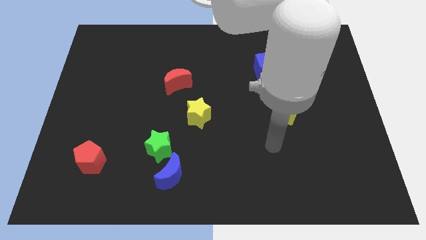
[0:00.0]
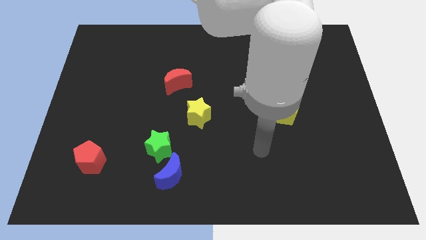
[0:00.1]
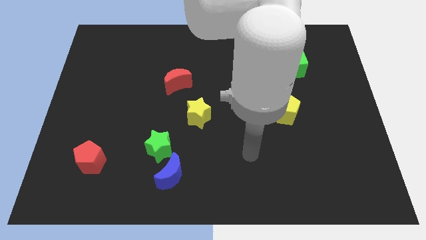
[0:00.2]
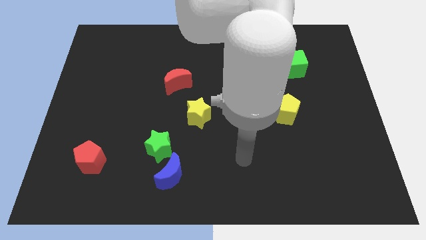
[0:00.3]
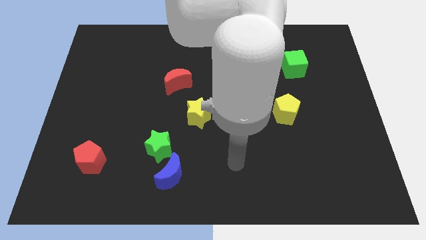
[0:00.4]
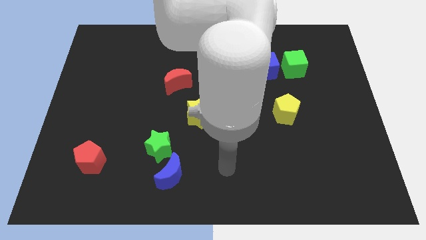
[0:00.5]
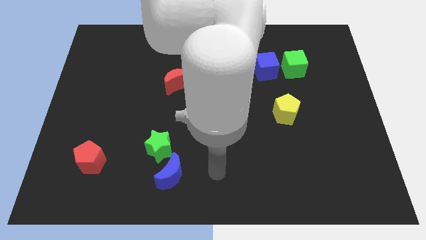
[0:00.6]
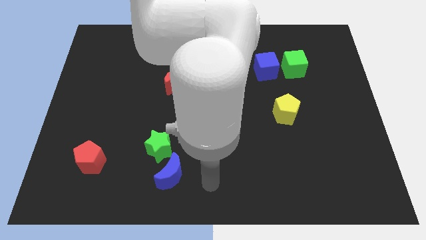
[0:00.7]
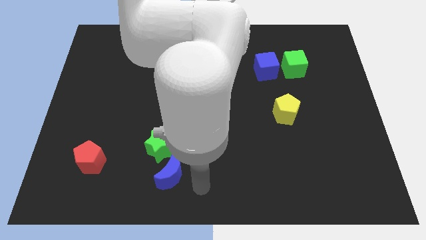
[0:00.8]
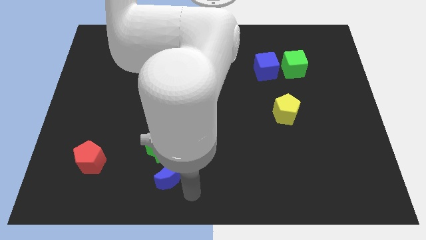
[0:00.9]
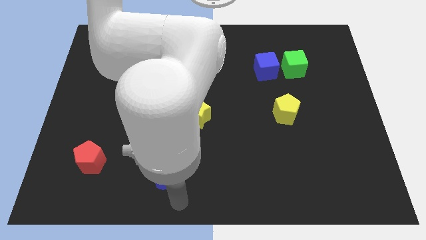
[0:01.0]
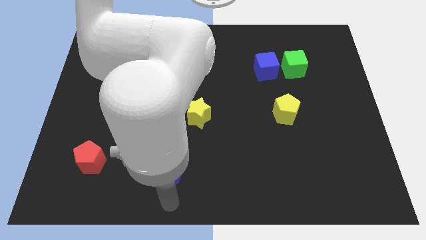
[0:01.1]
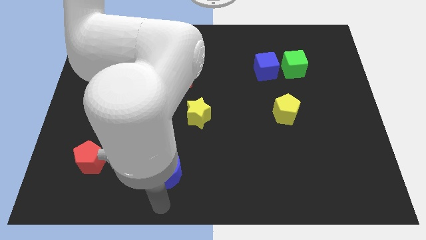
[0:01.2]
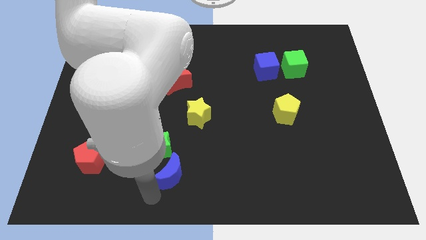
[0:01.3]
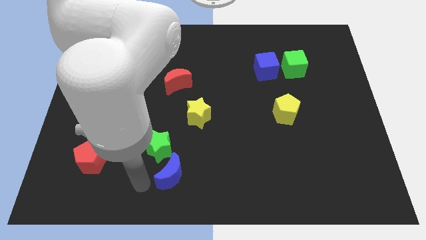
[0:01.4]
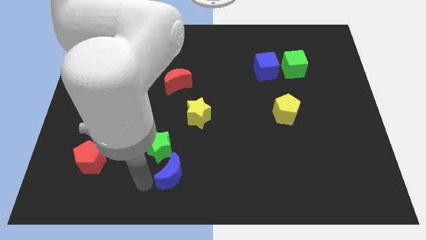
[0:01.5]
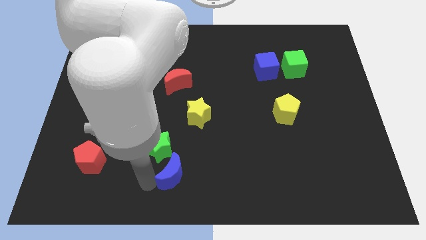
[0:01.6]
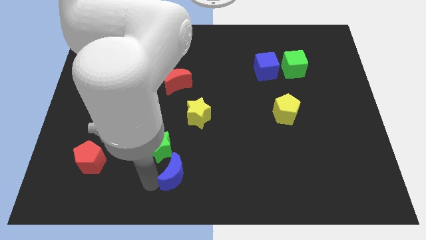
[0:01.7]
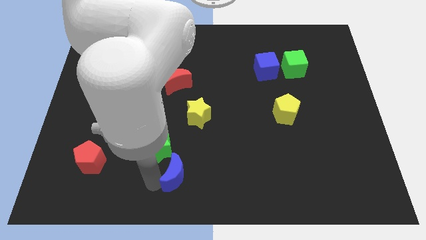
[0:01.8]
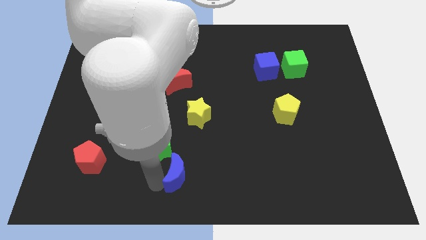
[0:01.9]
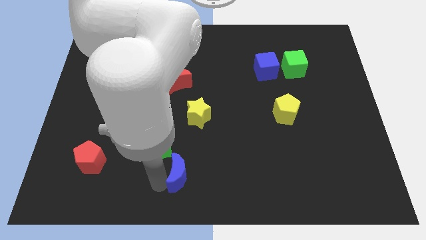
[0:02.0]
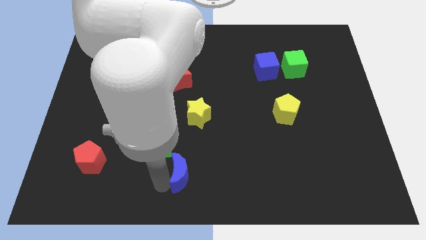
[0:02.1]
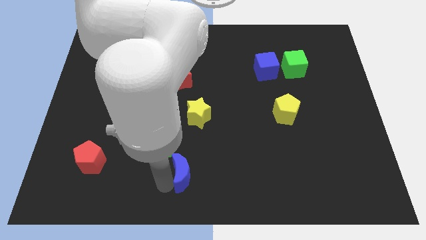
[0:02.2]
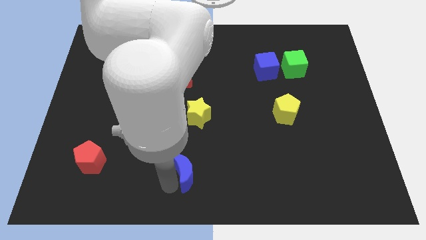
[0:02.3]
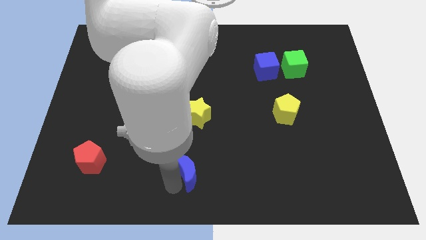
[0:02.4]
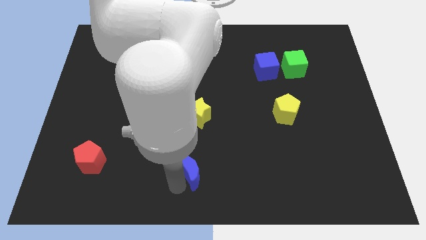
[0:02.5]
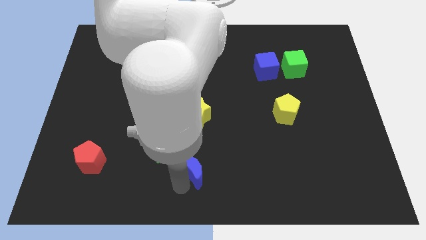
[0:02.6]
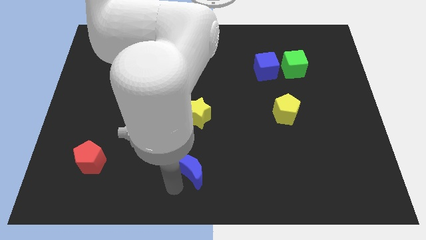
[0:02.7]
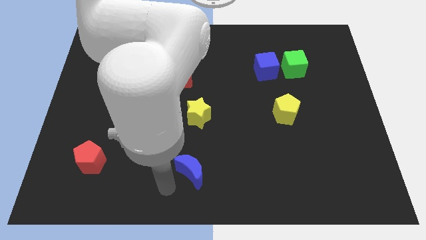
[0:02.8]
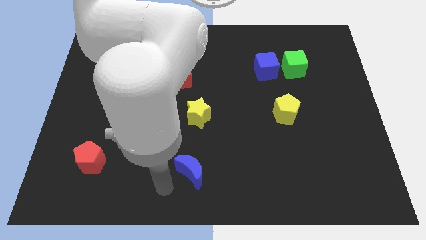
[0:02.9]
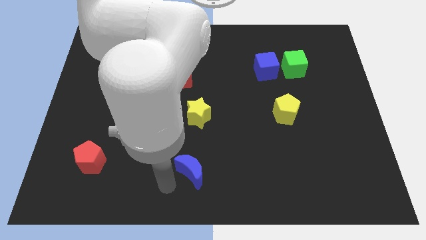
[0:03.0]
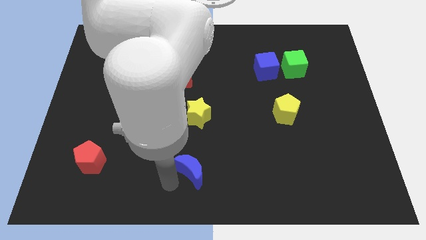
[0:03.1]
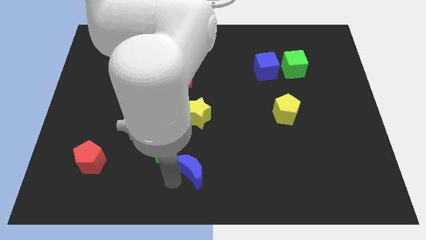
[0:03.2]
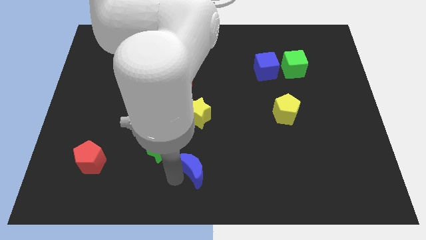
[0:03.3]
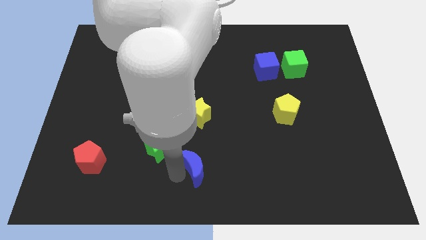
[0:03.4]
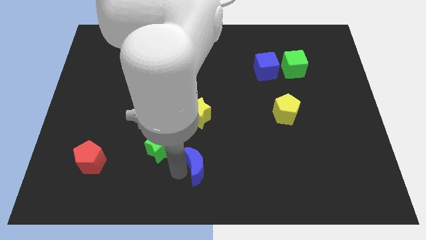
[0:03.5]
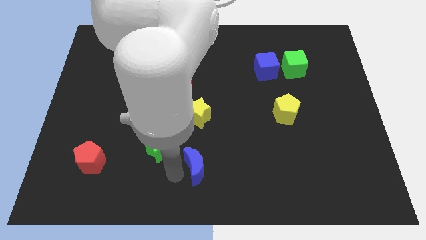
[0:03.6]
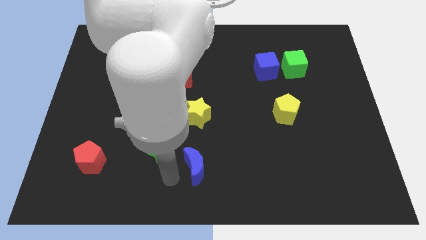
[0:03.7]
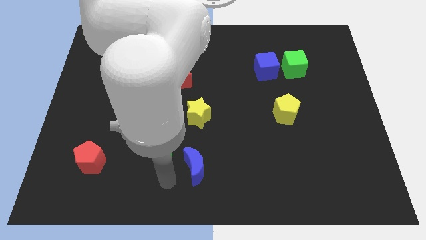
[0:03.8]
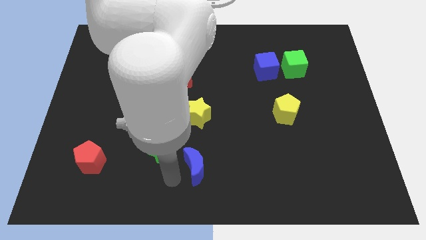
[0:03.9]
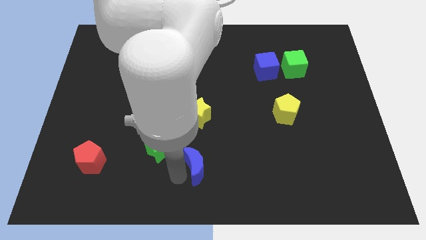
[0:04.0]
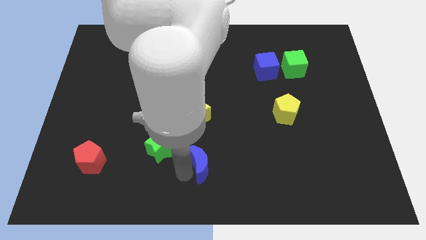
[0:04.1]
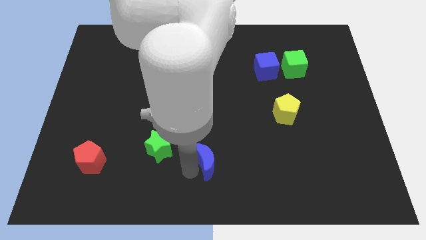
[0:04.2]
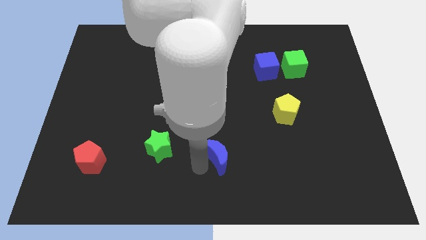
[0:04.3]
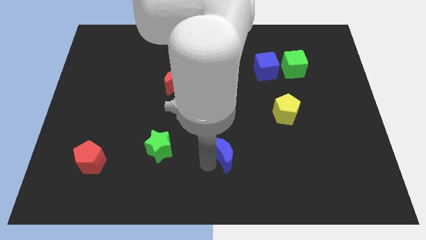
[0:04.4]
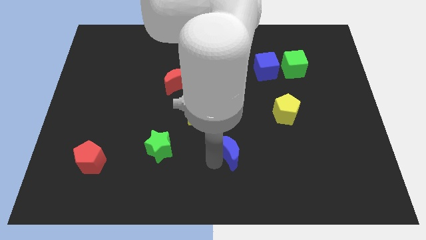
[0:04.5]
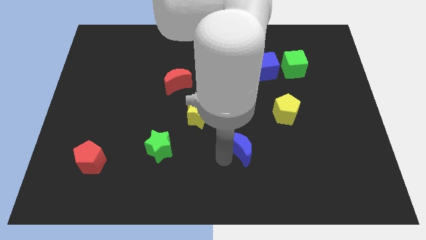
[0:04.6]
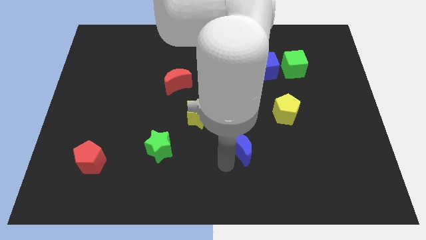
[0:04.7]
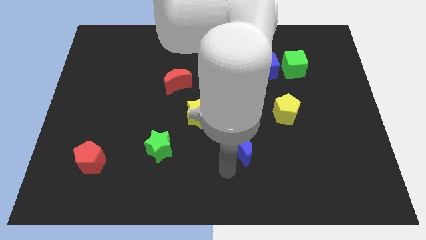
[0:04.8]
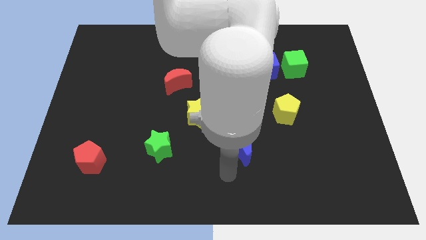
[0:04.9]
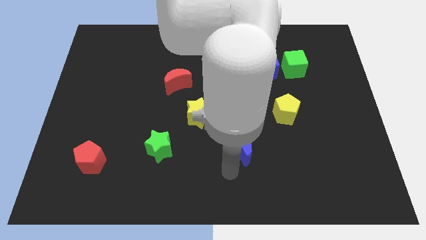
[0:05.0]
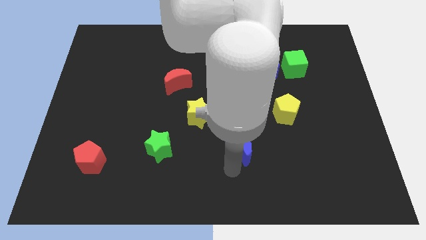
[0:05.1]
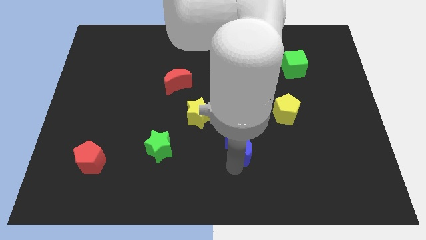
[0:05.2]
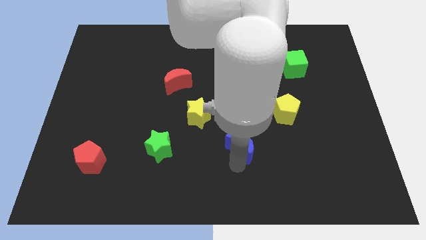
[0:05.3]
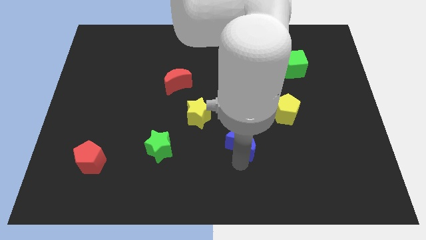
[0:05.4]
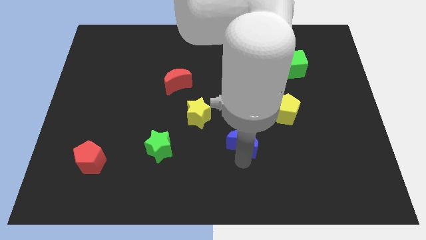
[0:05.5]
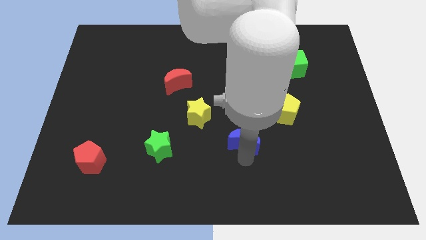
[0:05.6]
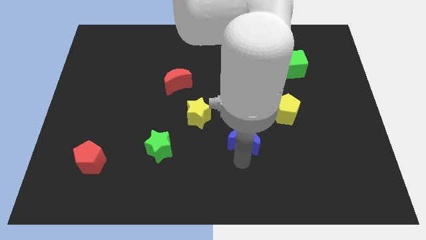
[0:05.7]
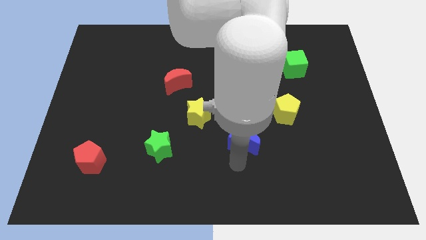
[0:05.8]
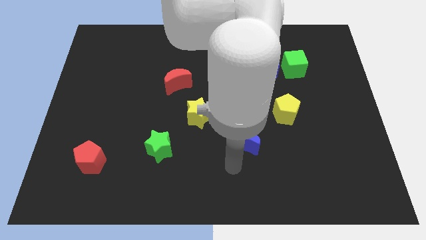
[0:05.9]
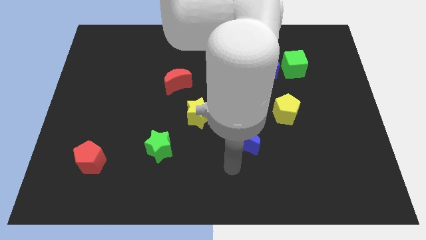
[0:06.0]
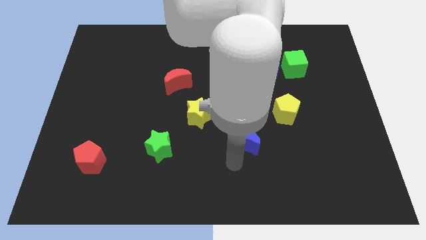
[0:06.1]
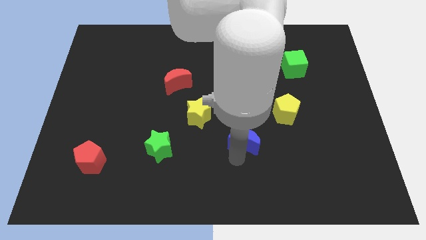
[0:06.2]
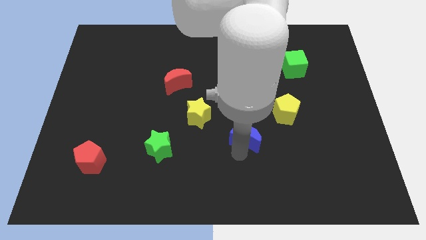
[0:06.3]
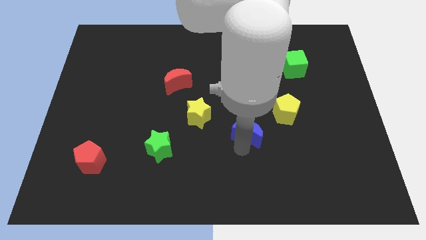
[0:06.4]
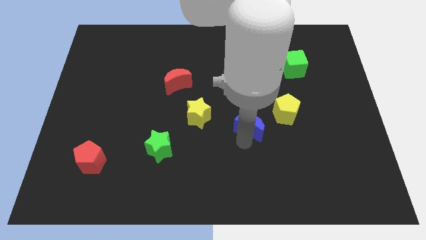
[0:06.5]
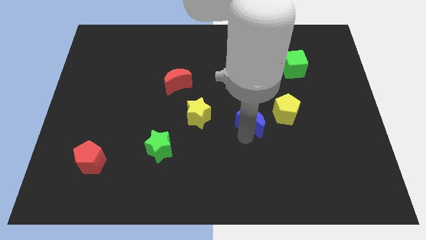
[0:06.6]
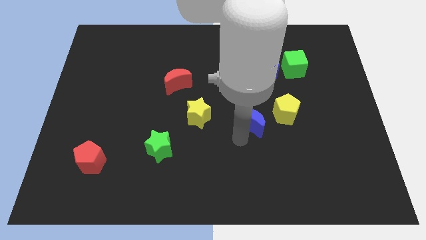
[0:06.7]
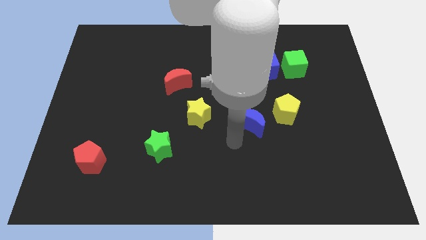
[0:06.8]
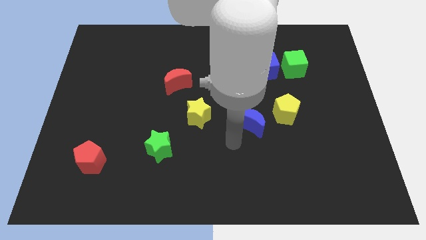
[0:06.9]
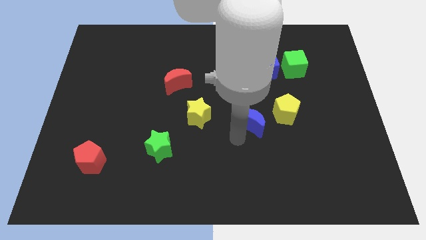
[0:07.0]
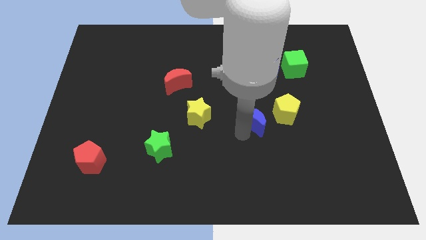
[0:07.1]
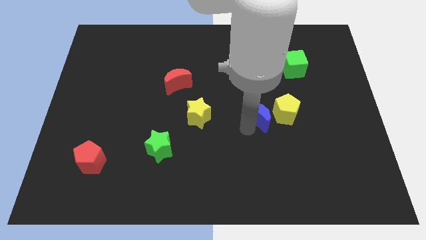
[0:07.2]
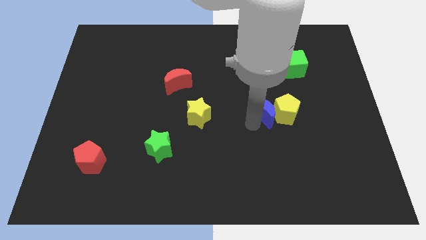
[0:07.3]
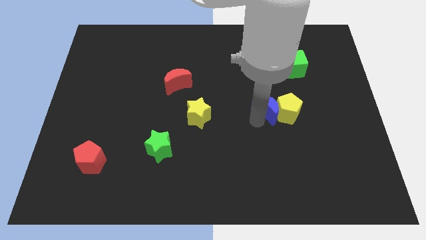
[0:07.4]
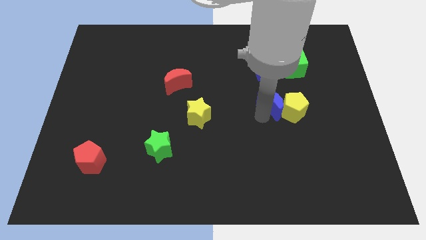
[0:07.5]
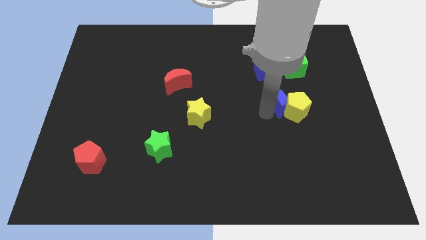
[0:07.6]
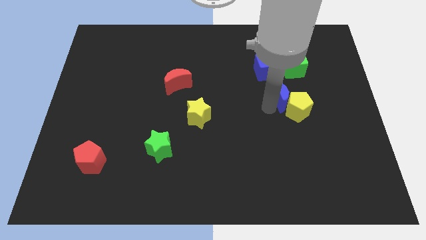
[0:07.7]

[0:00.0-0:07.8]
push the blue moon below the green cube
